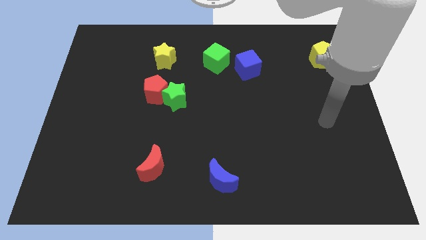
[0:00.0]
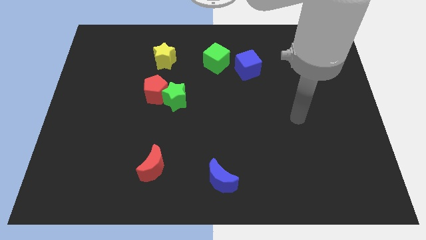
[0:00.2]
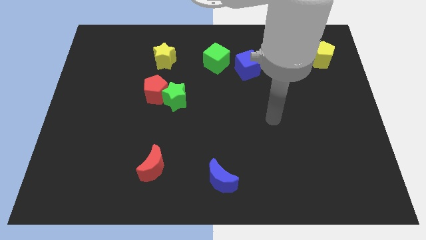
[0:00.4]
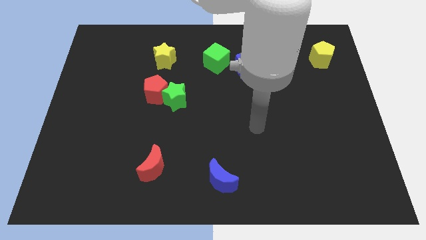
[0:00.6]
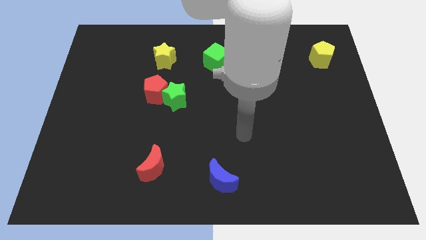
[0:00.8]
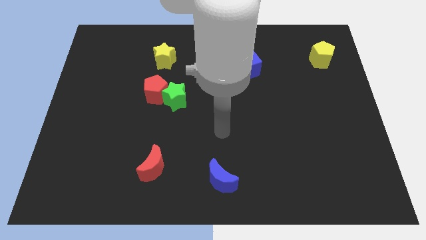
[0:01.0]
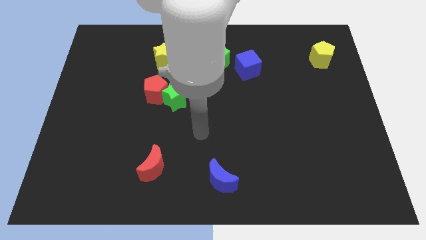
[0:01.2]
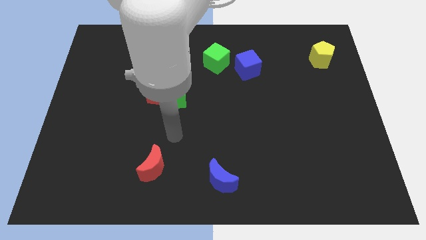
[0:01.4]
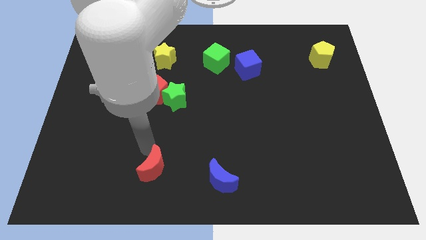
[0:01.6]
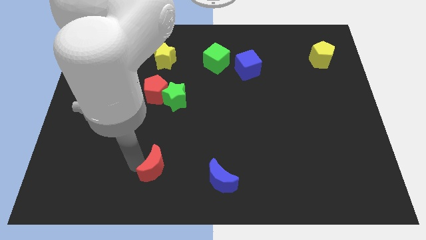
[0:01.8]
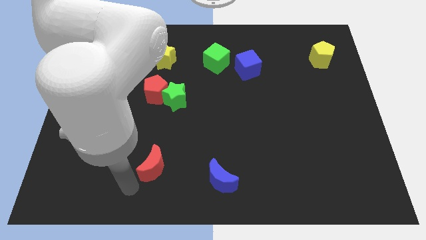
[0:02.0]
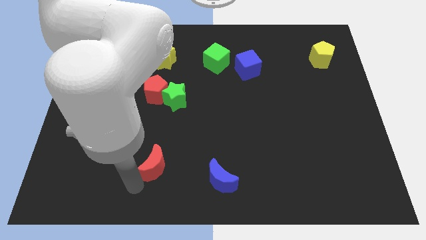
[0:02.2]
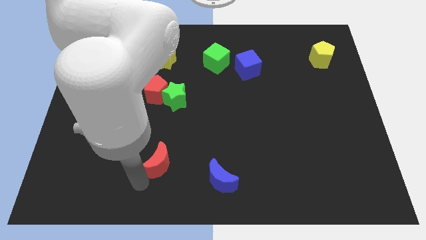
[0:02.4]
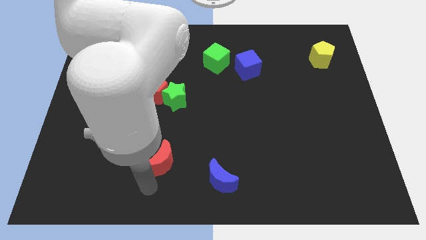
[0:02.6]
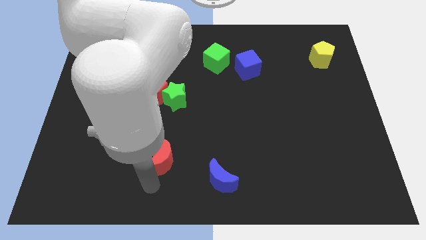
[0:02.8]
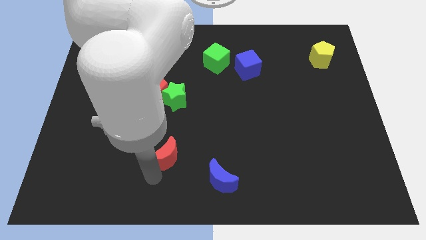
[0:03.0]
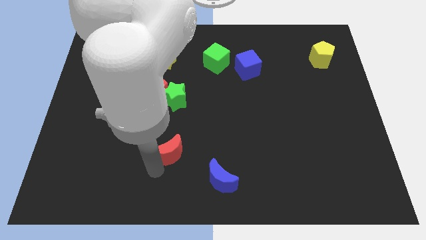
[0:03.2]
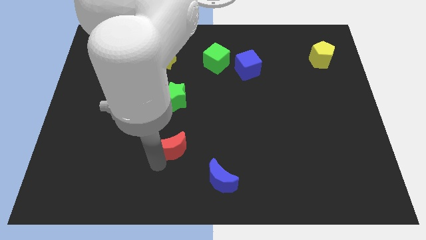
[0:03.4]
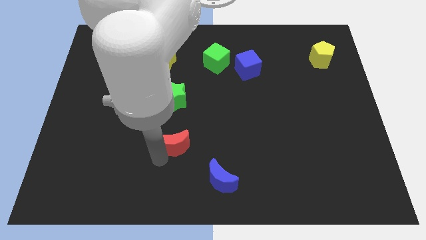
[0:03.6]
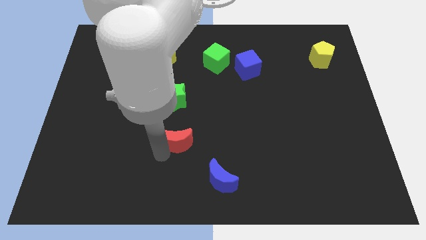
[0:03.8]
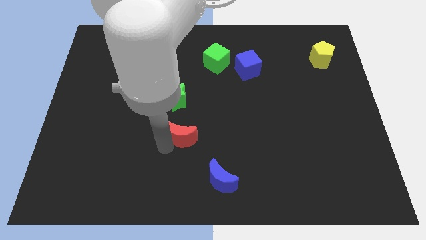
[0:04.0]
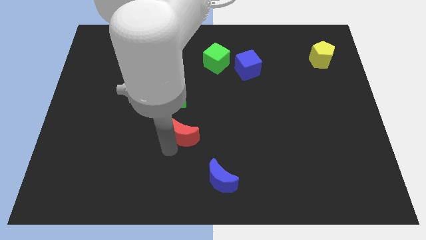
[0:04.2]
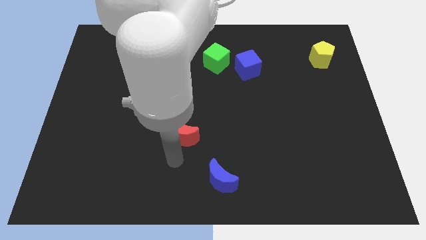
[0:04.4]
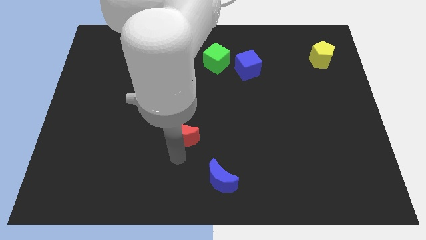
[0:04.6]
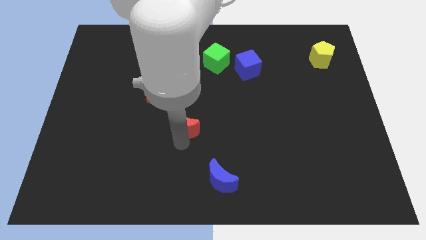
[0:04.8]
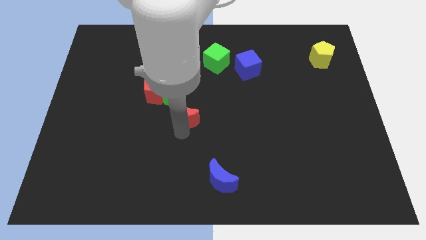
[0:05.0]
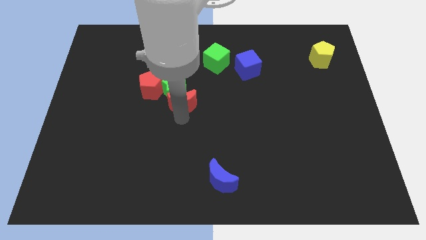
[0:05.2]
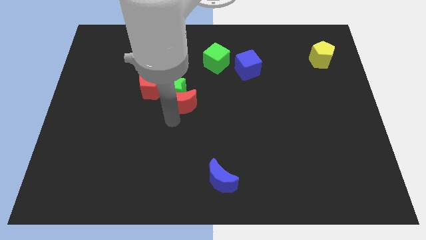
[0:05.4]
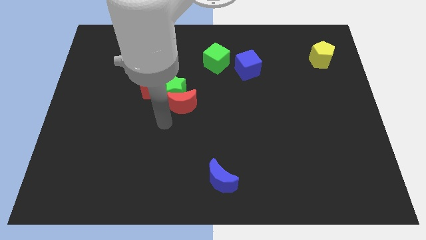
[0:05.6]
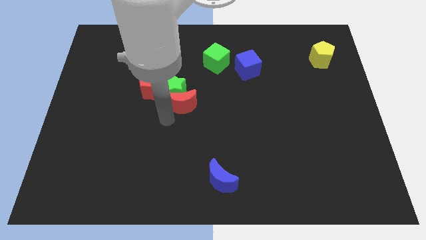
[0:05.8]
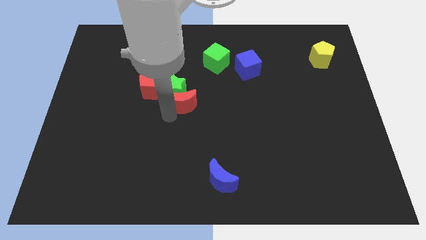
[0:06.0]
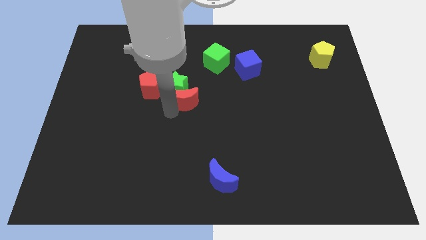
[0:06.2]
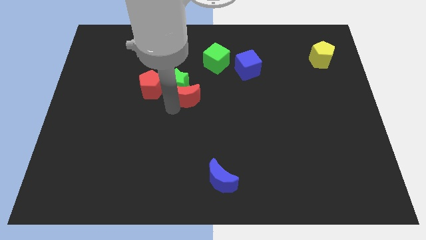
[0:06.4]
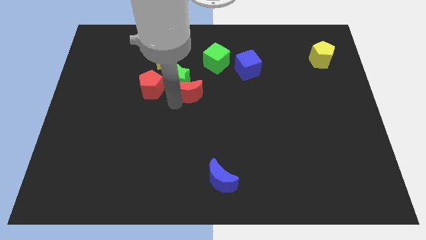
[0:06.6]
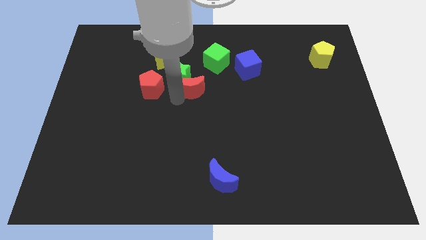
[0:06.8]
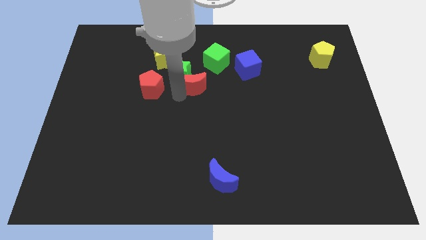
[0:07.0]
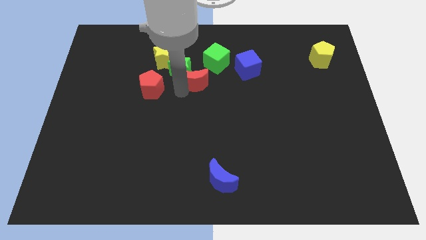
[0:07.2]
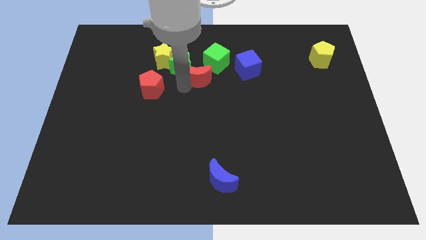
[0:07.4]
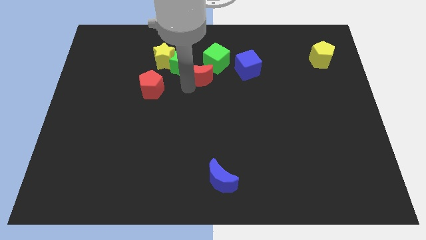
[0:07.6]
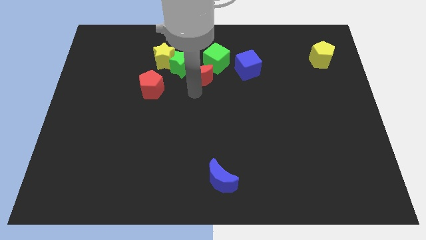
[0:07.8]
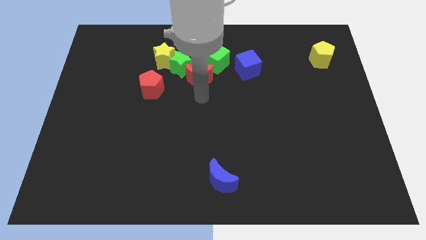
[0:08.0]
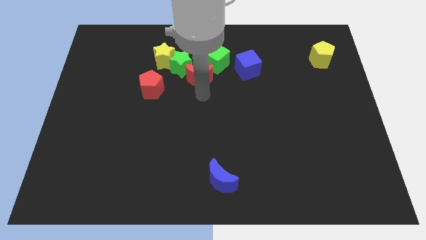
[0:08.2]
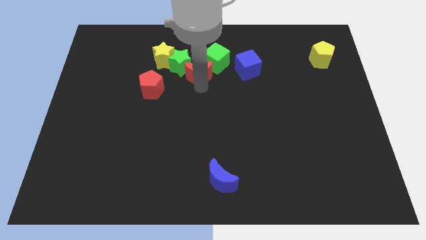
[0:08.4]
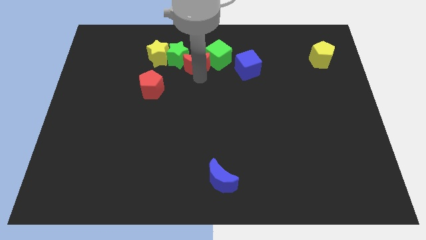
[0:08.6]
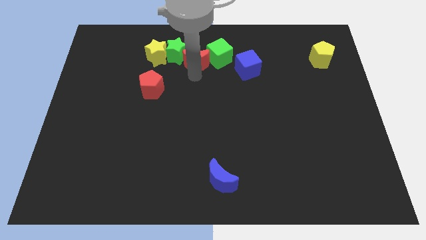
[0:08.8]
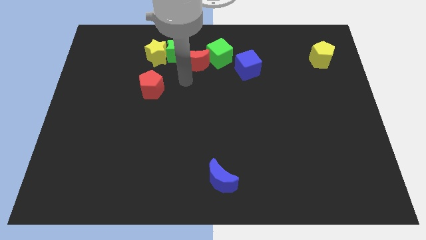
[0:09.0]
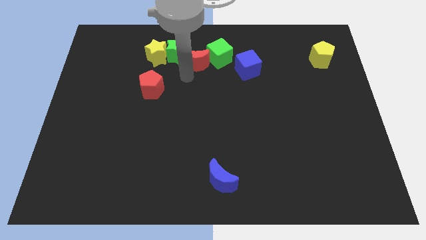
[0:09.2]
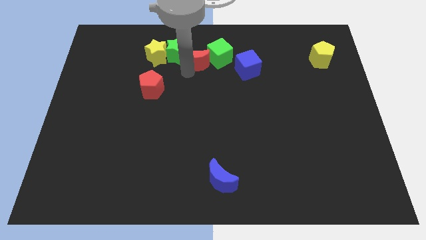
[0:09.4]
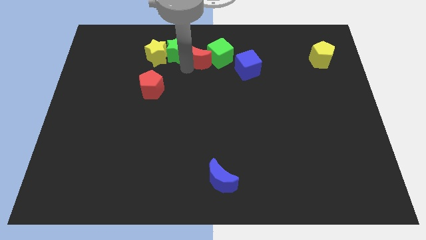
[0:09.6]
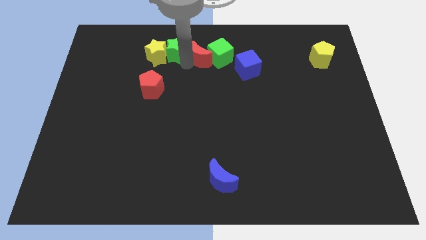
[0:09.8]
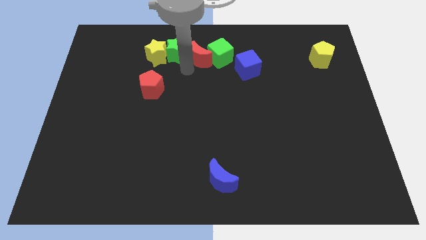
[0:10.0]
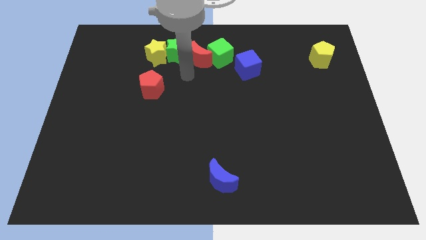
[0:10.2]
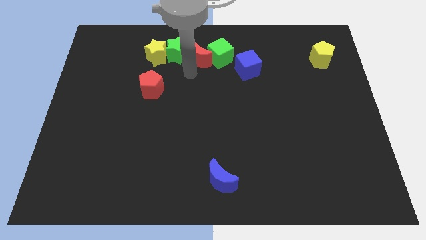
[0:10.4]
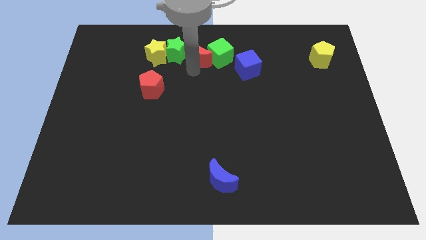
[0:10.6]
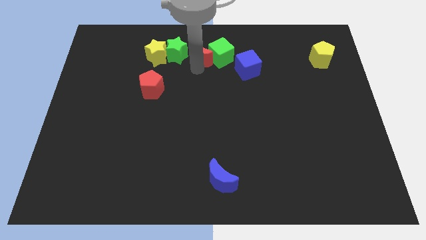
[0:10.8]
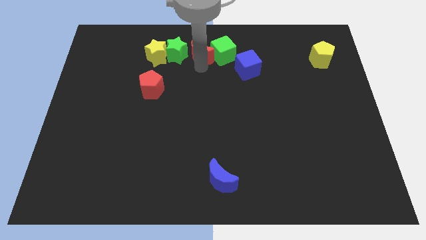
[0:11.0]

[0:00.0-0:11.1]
move the red moon to the top

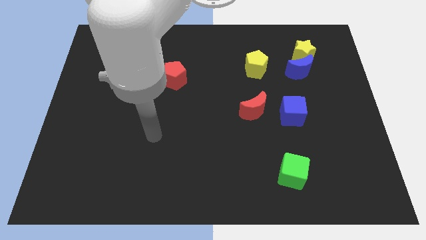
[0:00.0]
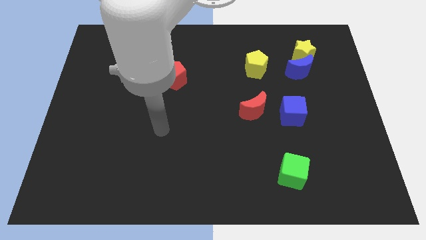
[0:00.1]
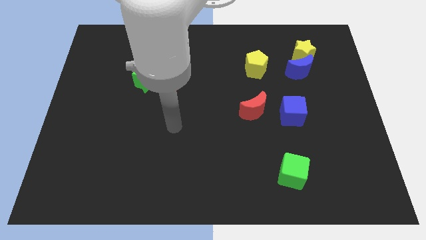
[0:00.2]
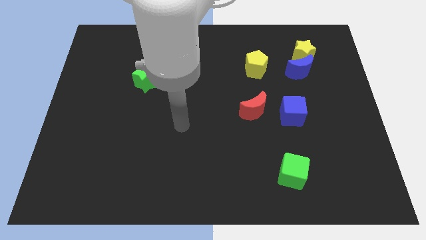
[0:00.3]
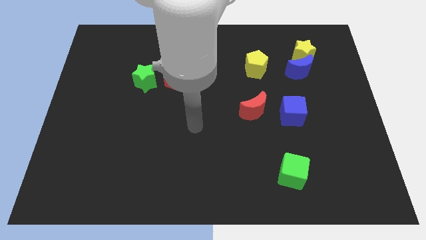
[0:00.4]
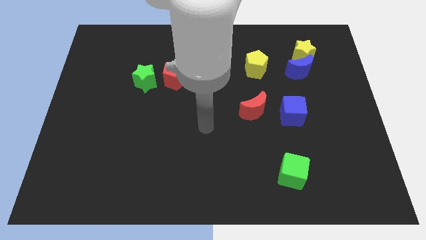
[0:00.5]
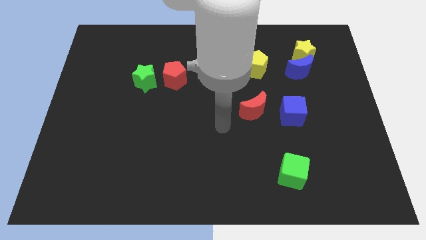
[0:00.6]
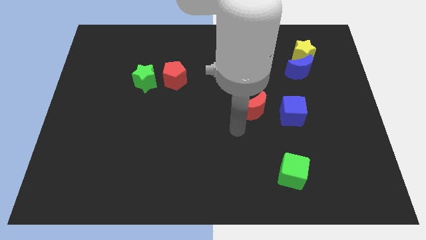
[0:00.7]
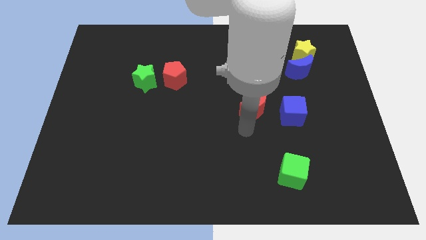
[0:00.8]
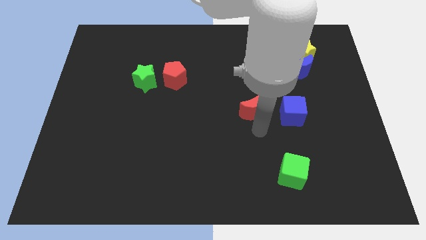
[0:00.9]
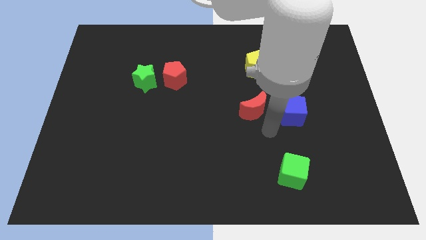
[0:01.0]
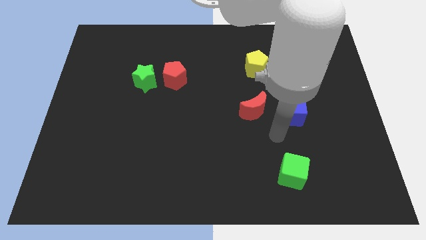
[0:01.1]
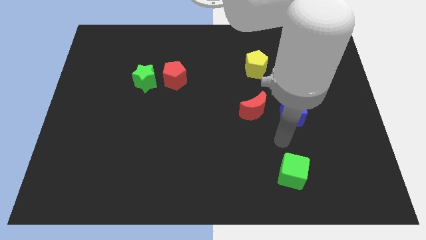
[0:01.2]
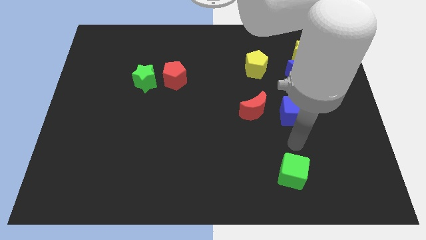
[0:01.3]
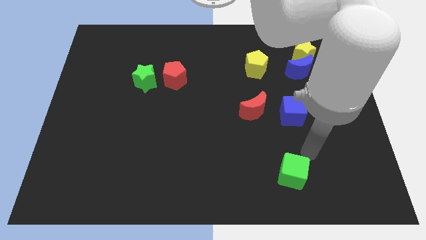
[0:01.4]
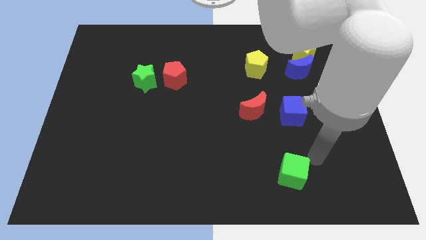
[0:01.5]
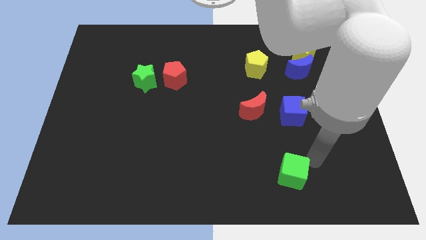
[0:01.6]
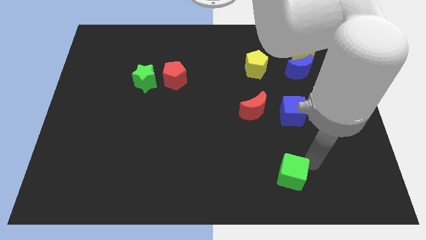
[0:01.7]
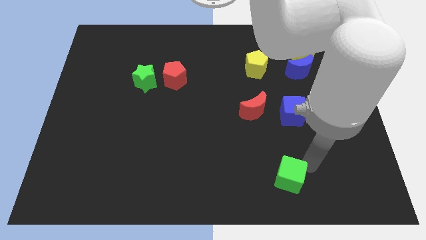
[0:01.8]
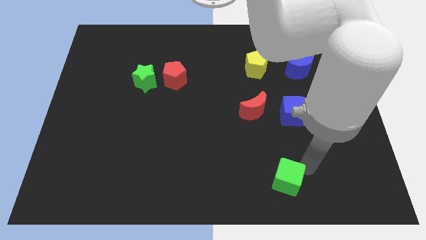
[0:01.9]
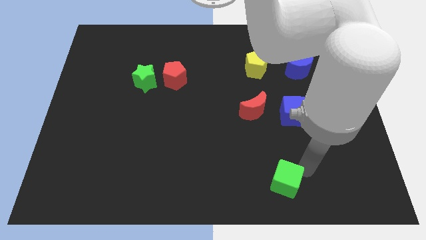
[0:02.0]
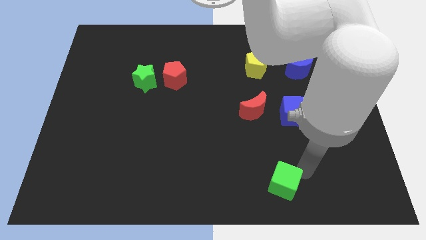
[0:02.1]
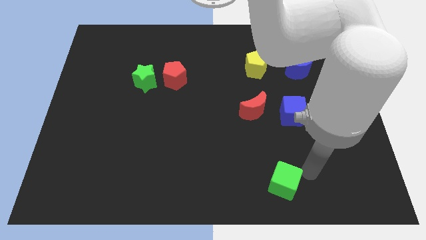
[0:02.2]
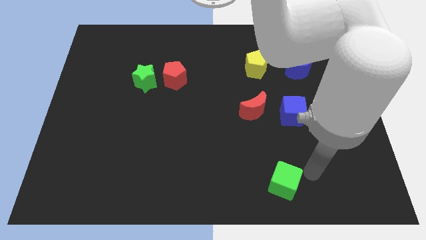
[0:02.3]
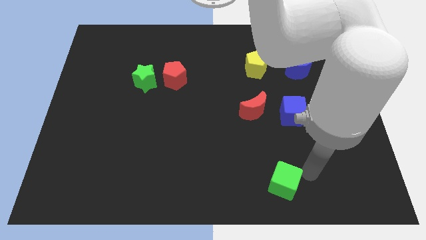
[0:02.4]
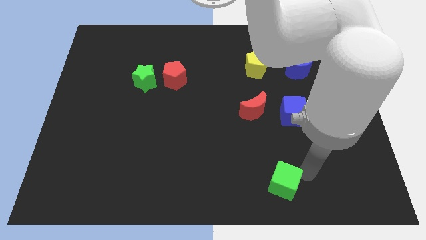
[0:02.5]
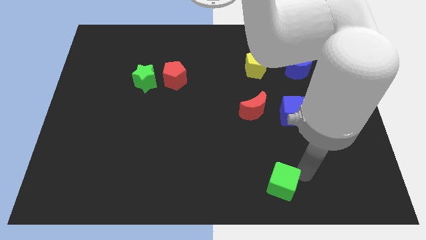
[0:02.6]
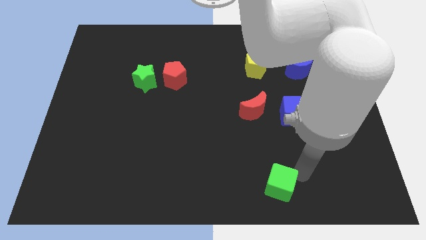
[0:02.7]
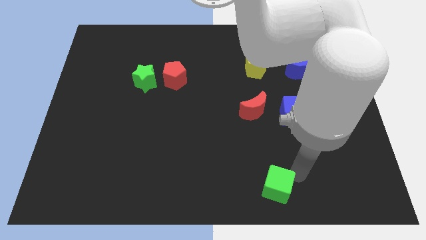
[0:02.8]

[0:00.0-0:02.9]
put the green cube to the bottom side
